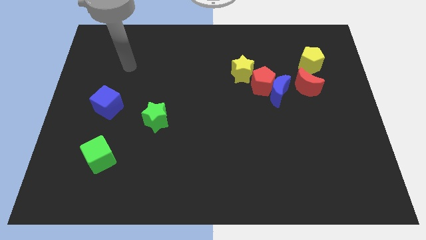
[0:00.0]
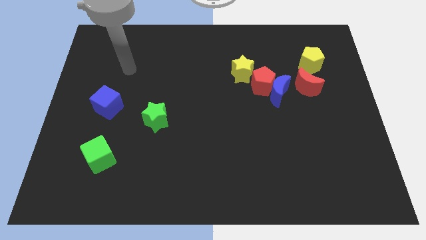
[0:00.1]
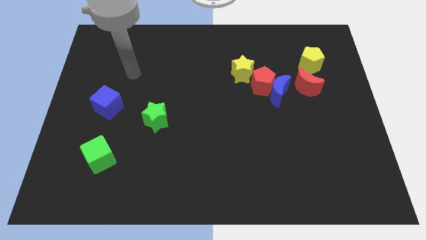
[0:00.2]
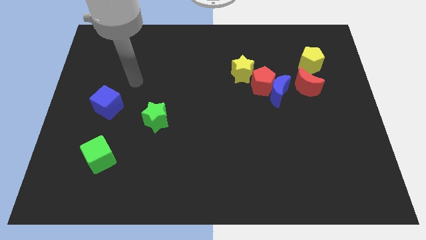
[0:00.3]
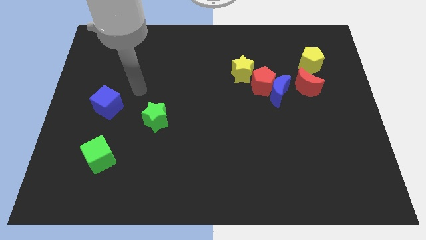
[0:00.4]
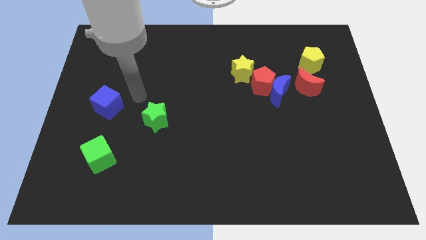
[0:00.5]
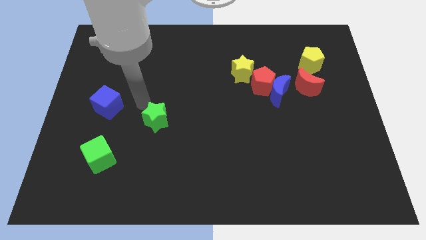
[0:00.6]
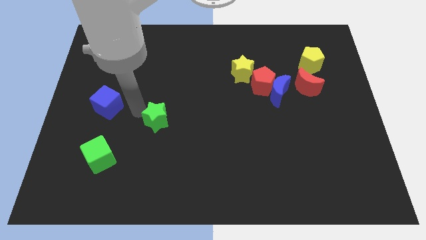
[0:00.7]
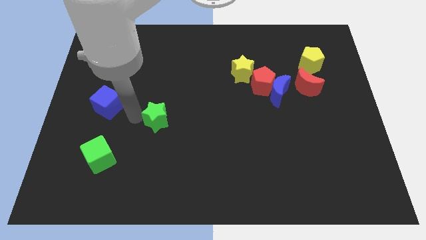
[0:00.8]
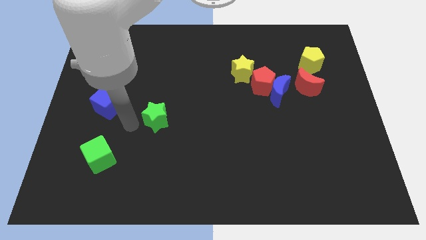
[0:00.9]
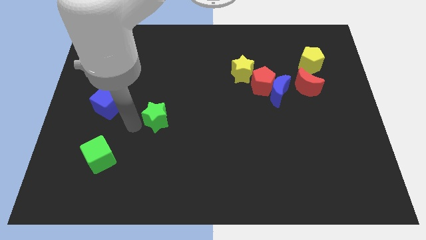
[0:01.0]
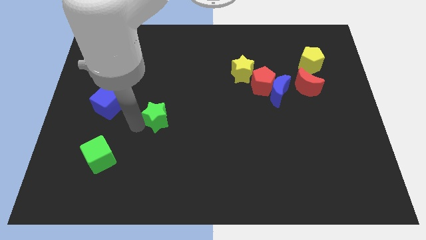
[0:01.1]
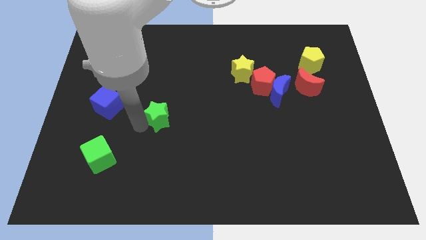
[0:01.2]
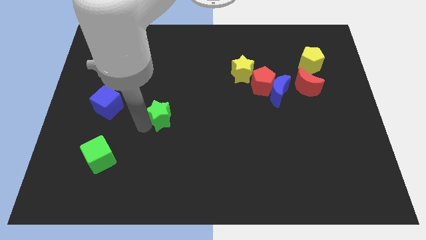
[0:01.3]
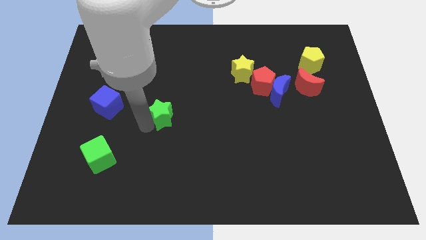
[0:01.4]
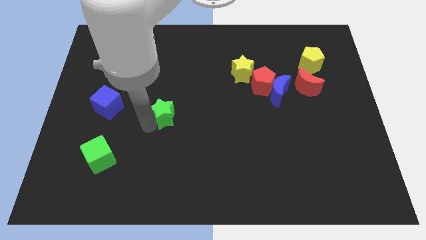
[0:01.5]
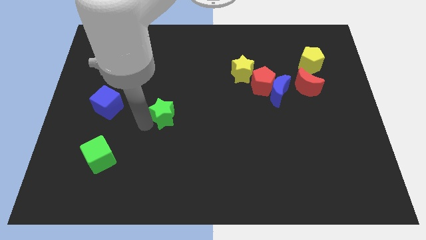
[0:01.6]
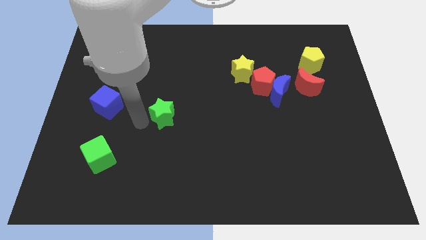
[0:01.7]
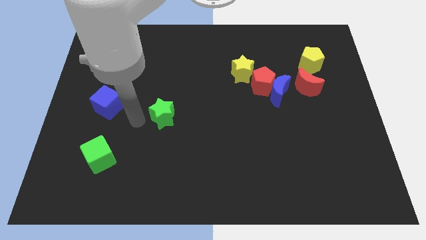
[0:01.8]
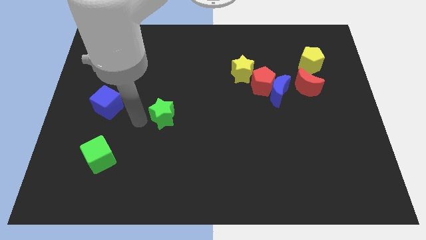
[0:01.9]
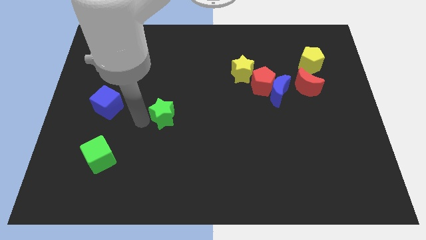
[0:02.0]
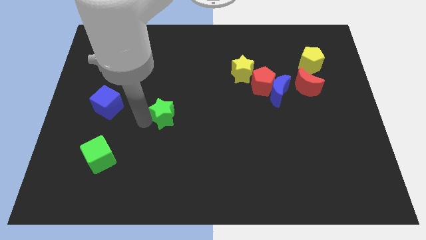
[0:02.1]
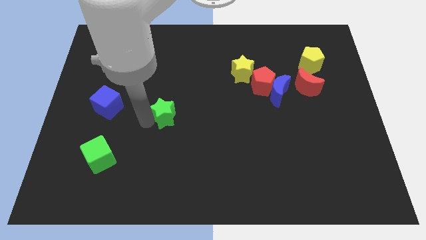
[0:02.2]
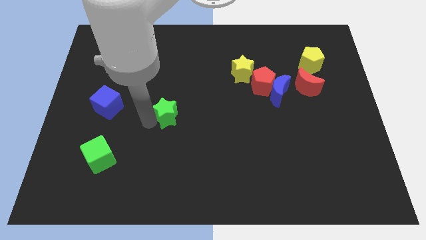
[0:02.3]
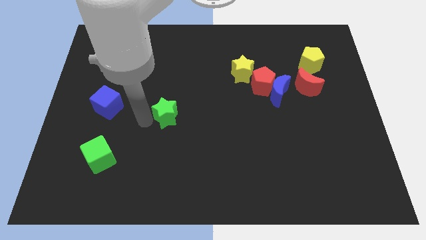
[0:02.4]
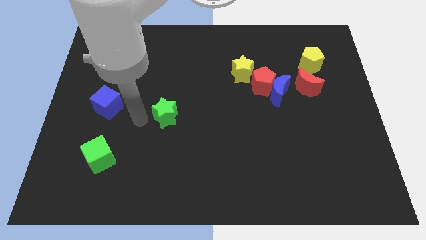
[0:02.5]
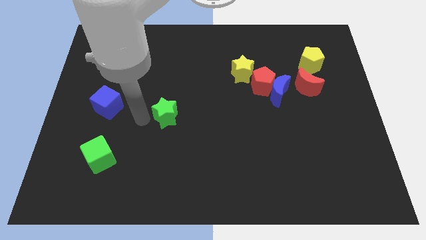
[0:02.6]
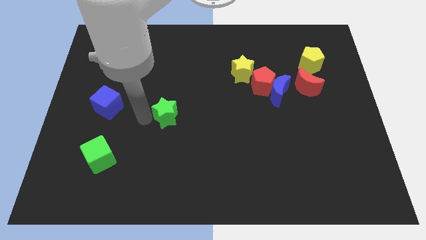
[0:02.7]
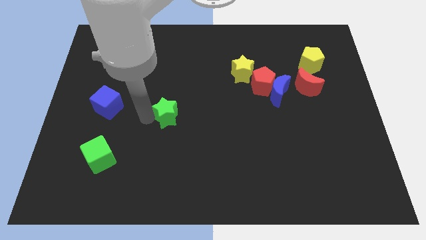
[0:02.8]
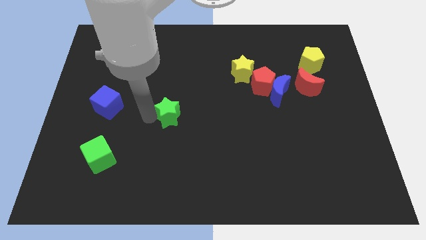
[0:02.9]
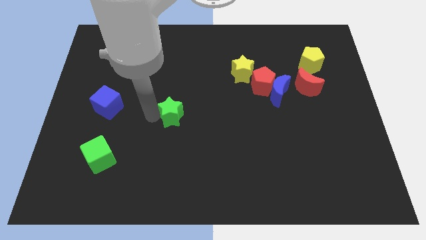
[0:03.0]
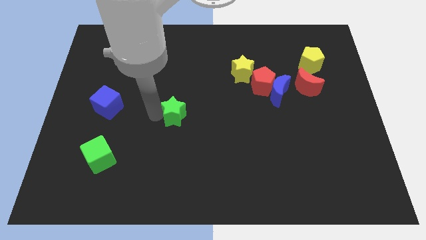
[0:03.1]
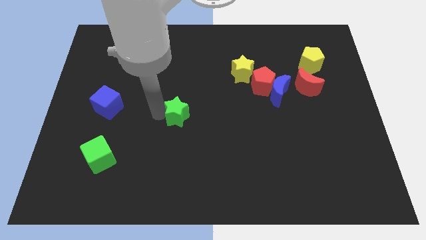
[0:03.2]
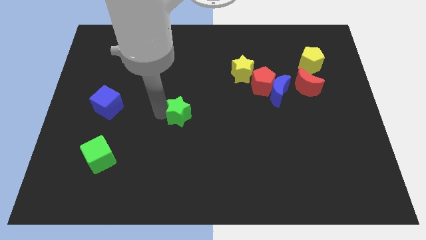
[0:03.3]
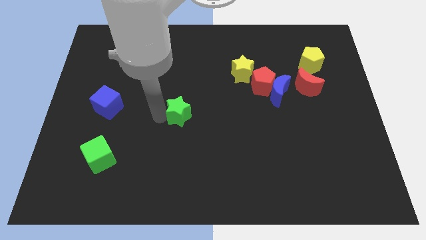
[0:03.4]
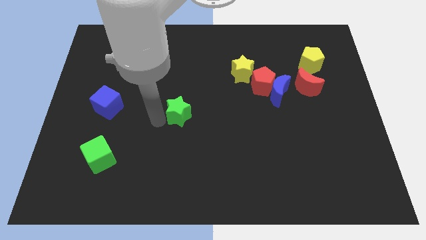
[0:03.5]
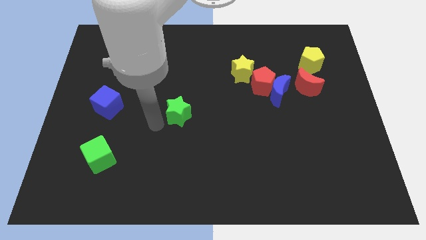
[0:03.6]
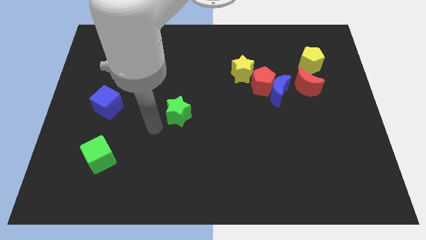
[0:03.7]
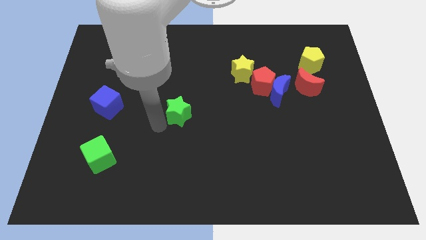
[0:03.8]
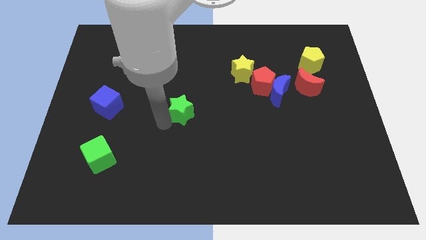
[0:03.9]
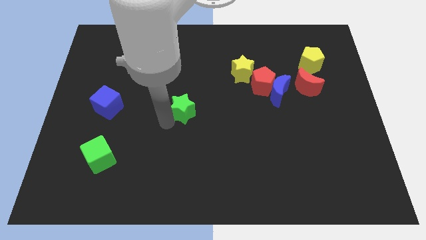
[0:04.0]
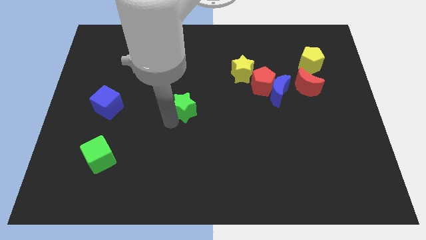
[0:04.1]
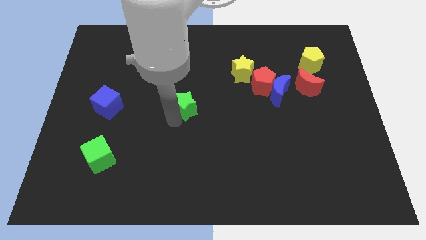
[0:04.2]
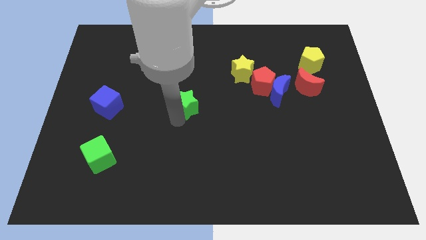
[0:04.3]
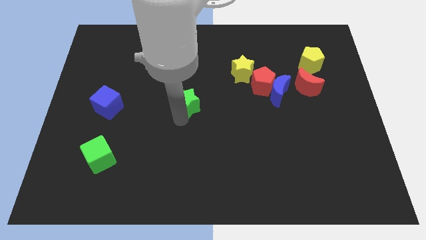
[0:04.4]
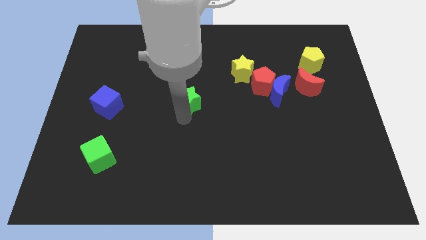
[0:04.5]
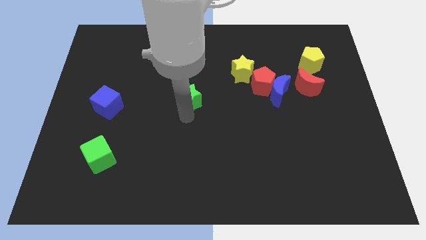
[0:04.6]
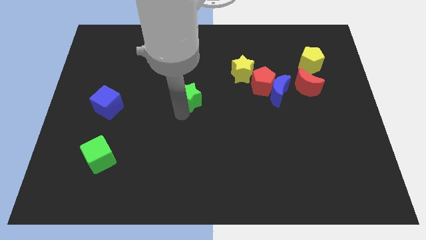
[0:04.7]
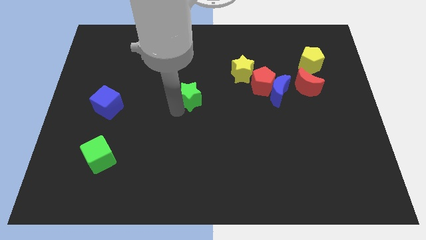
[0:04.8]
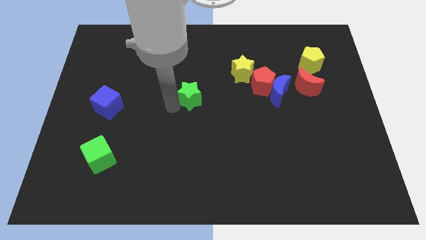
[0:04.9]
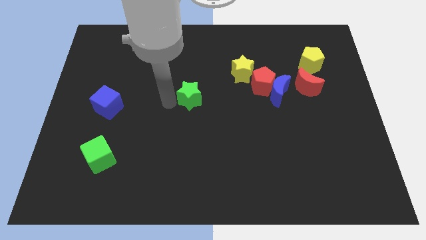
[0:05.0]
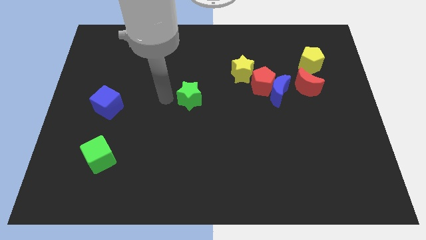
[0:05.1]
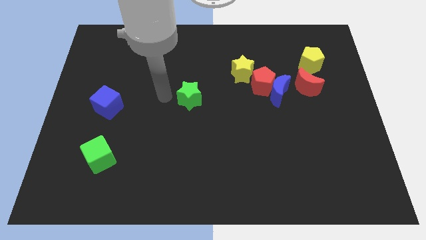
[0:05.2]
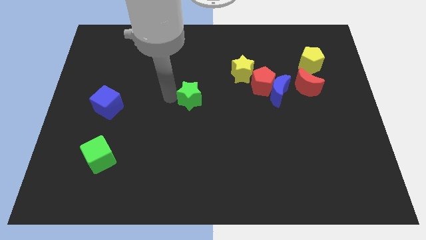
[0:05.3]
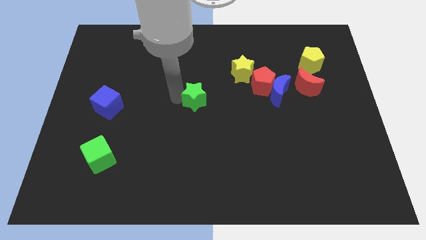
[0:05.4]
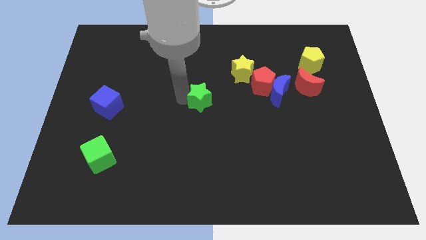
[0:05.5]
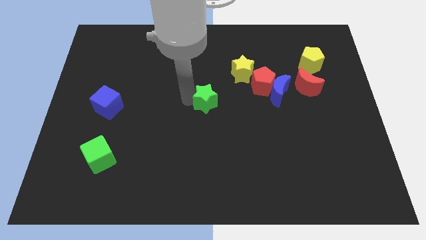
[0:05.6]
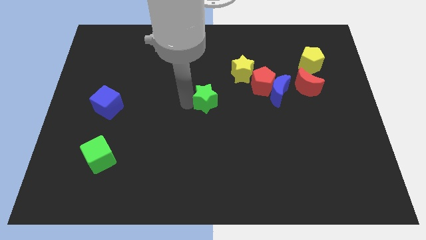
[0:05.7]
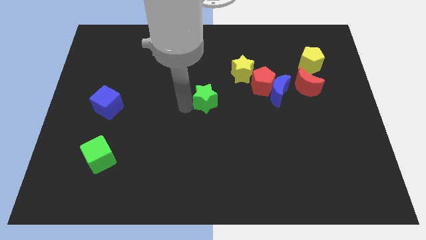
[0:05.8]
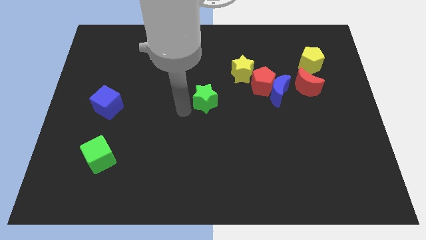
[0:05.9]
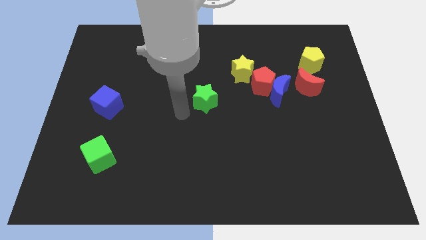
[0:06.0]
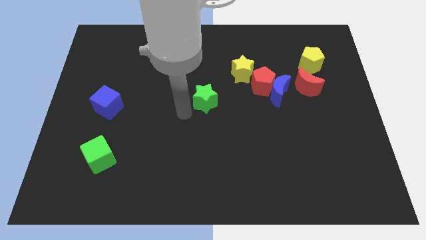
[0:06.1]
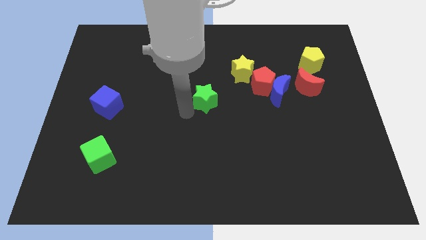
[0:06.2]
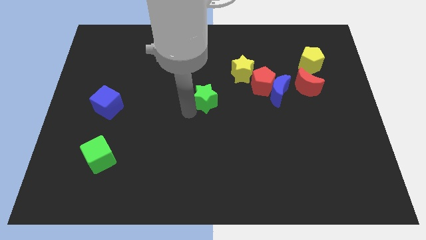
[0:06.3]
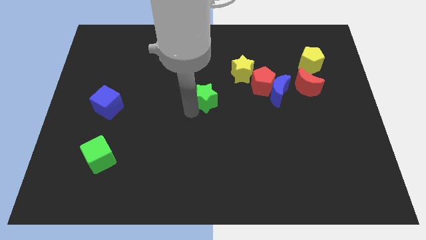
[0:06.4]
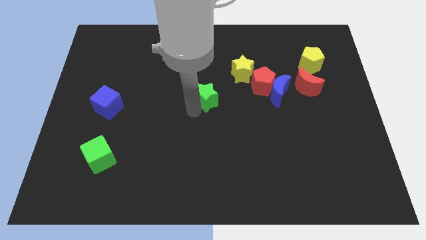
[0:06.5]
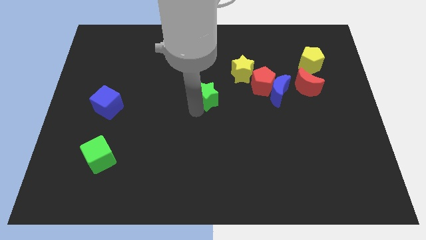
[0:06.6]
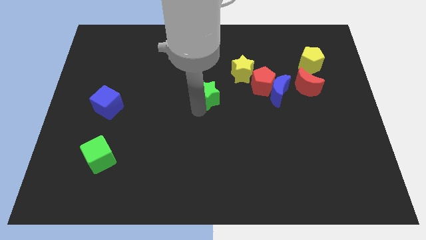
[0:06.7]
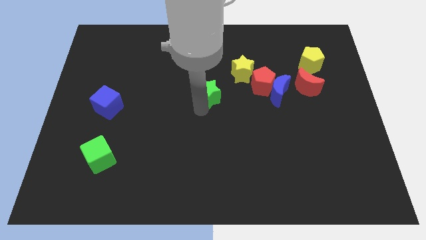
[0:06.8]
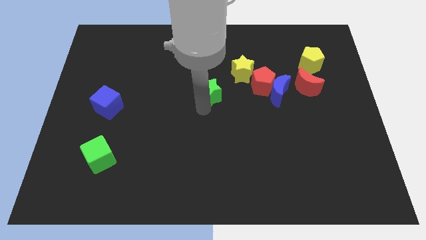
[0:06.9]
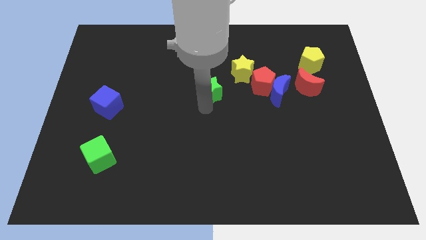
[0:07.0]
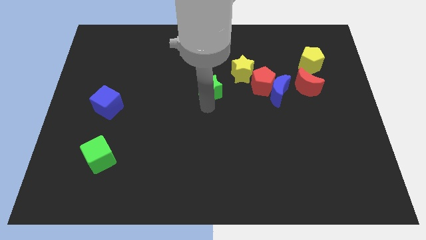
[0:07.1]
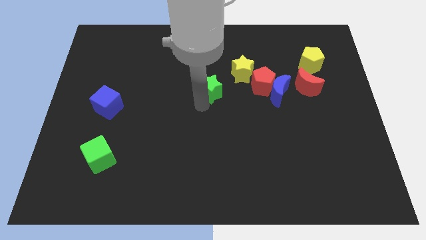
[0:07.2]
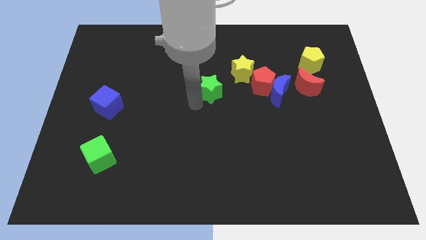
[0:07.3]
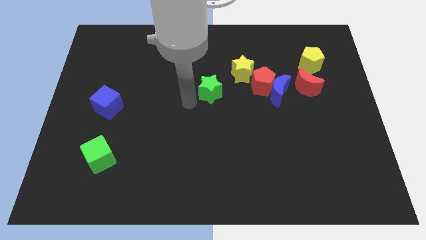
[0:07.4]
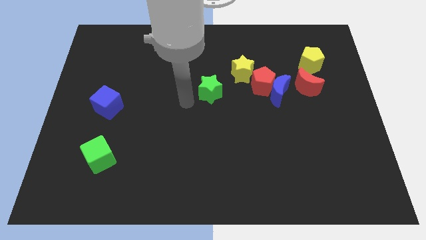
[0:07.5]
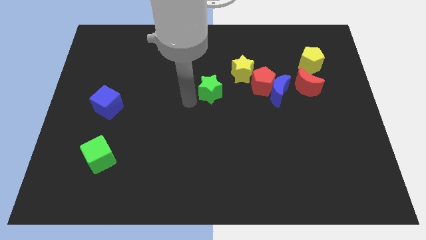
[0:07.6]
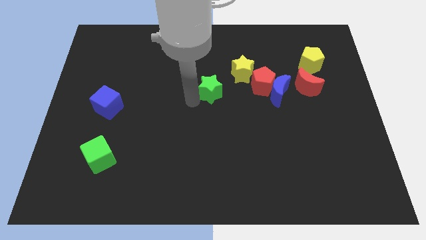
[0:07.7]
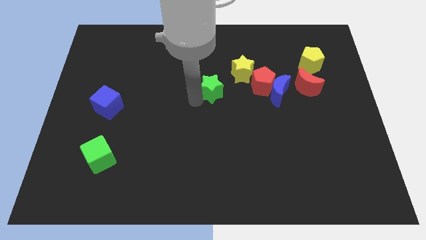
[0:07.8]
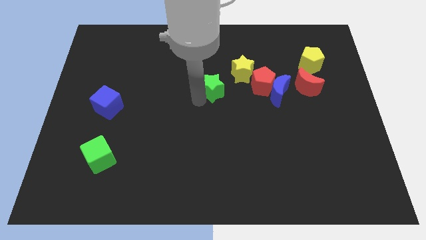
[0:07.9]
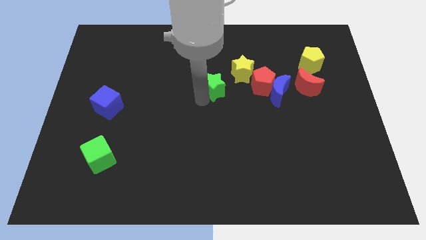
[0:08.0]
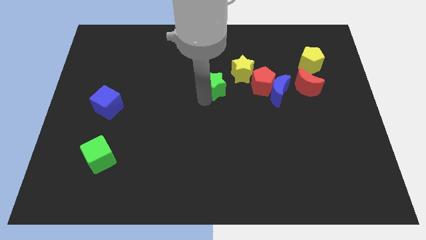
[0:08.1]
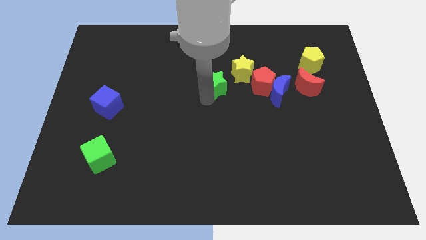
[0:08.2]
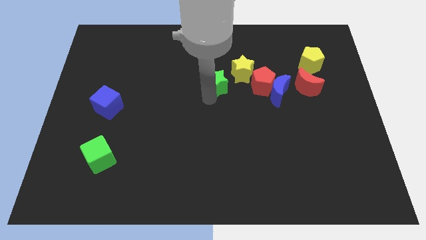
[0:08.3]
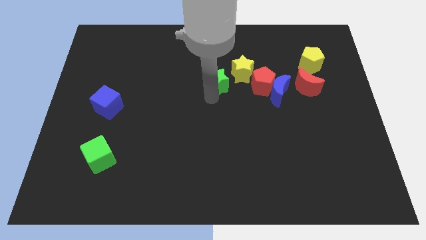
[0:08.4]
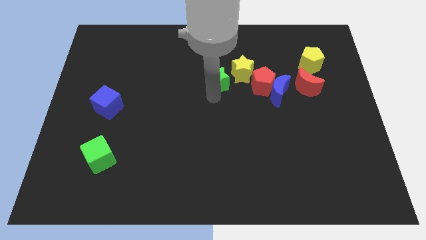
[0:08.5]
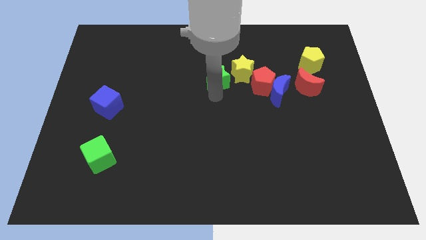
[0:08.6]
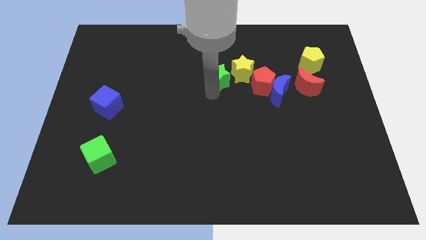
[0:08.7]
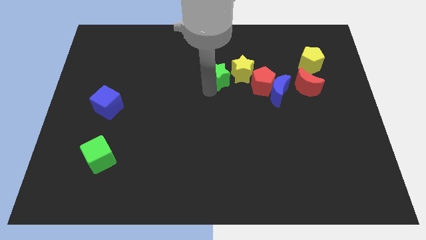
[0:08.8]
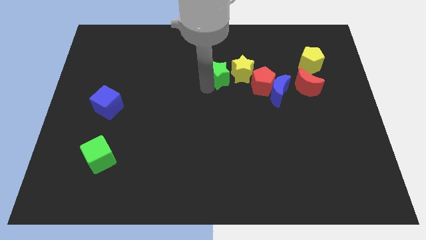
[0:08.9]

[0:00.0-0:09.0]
put the green star next to the yellow star
